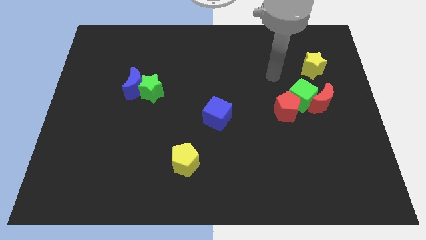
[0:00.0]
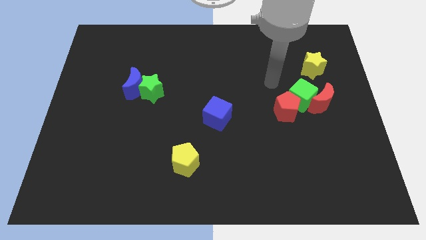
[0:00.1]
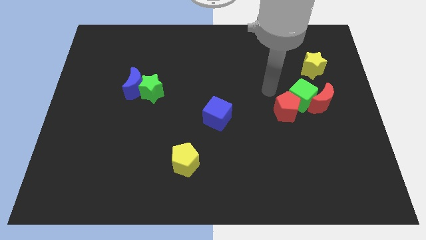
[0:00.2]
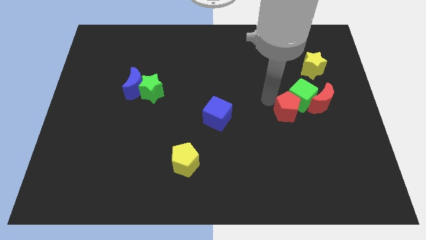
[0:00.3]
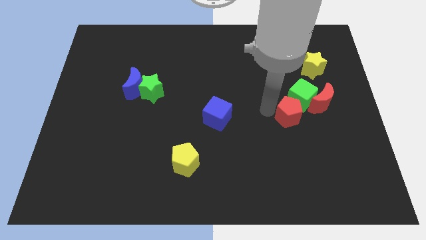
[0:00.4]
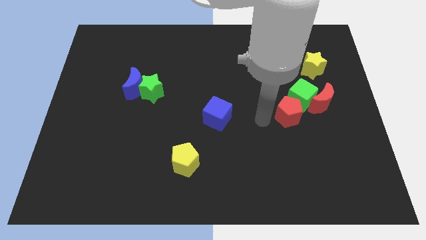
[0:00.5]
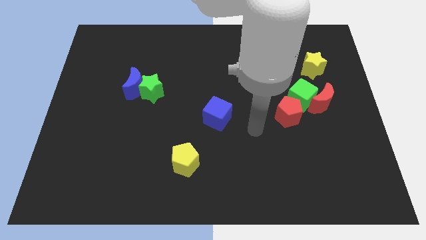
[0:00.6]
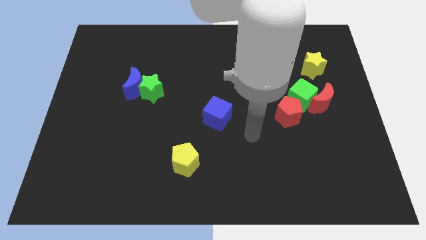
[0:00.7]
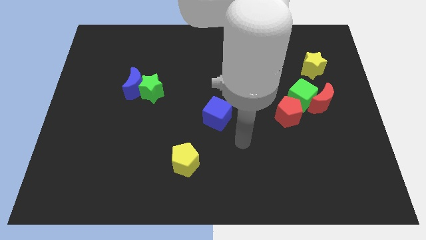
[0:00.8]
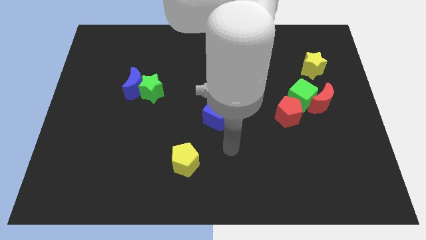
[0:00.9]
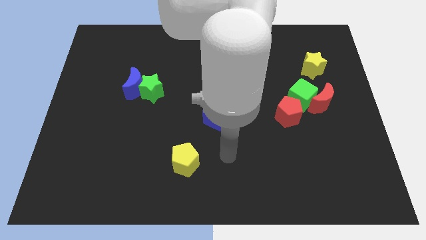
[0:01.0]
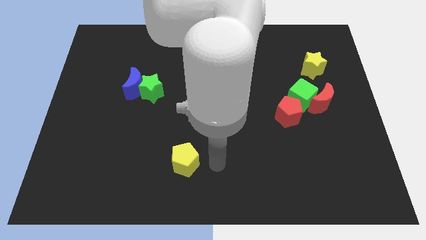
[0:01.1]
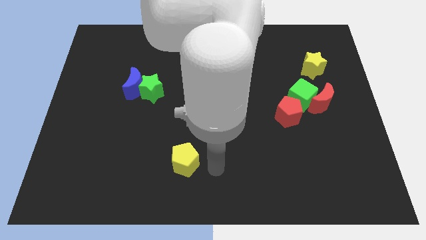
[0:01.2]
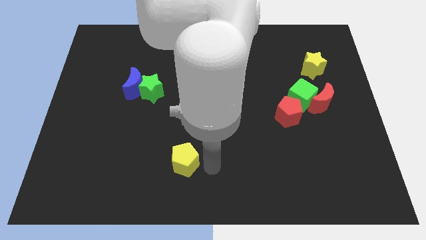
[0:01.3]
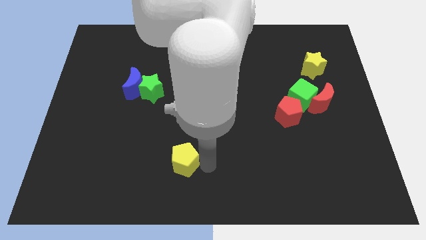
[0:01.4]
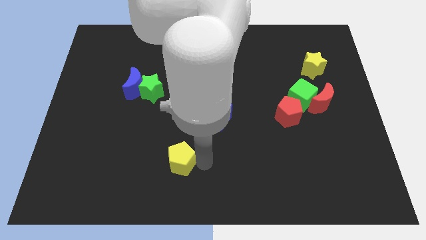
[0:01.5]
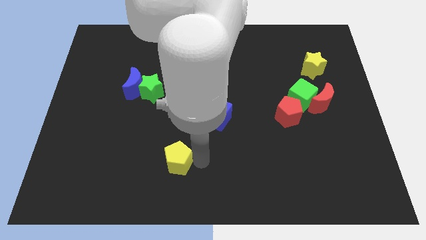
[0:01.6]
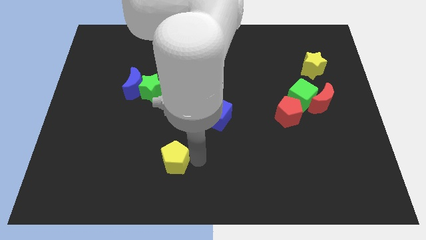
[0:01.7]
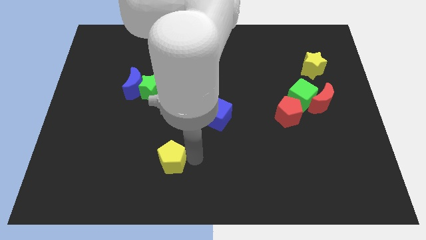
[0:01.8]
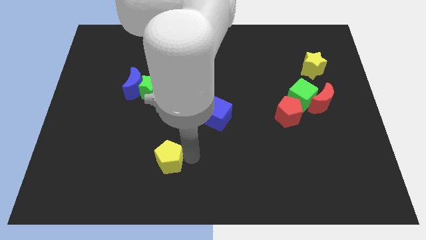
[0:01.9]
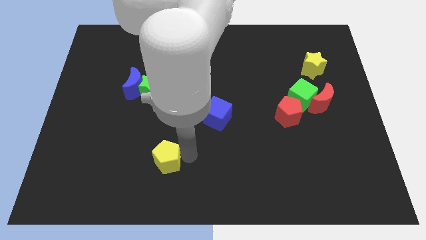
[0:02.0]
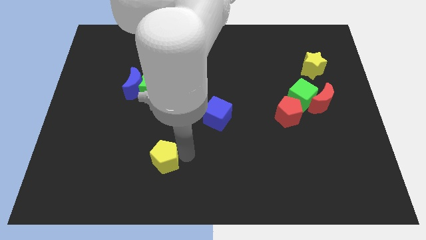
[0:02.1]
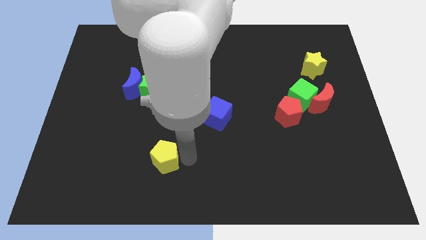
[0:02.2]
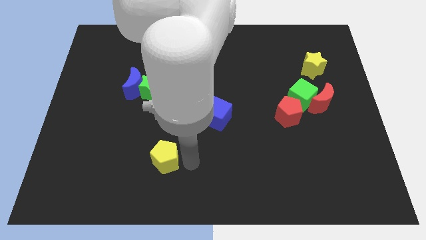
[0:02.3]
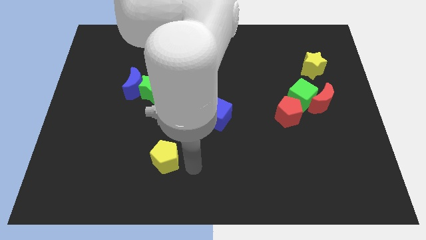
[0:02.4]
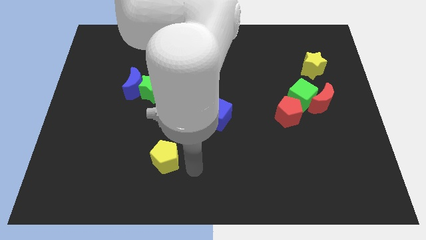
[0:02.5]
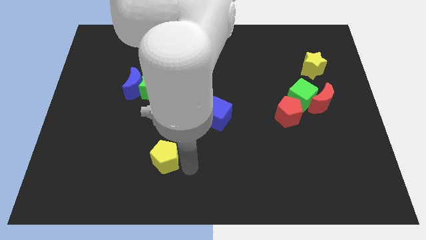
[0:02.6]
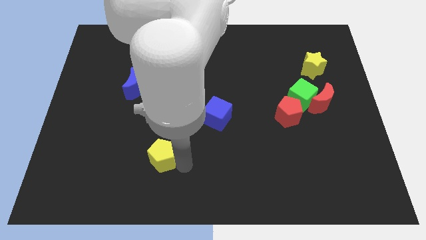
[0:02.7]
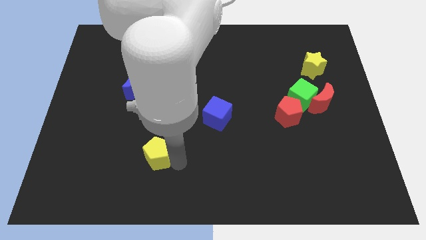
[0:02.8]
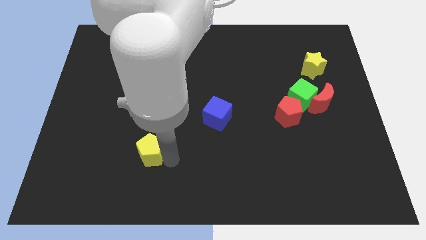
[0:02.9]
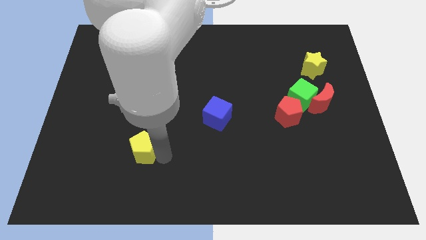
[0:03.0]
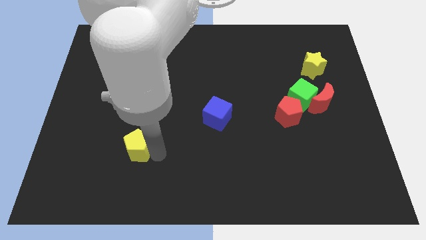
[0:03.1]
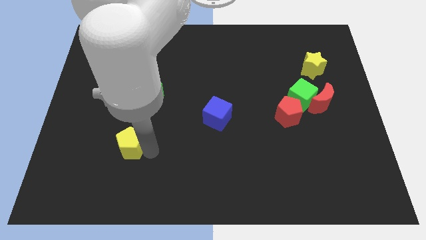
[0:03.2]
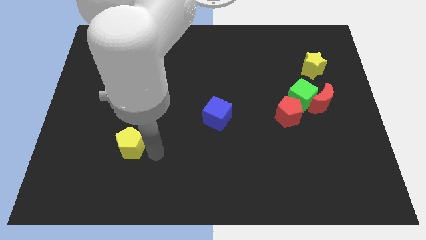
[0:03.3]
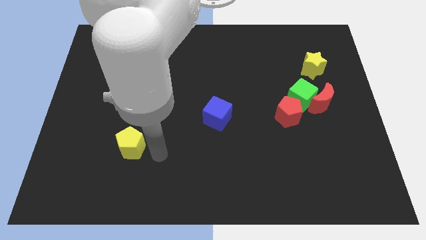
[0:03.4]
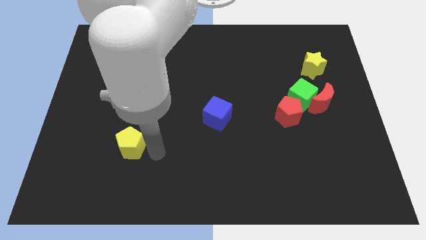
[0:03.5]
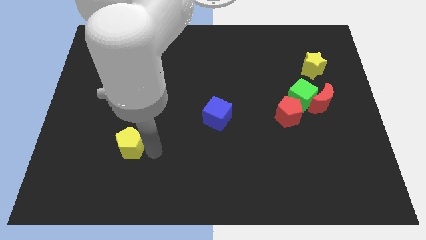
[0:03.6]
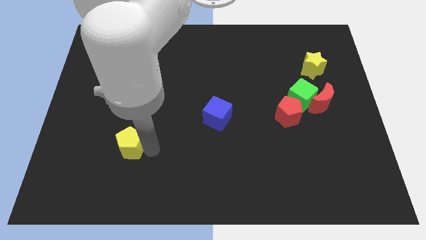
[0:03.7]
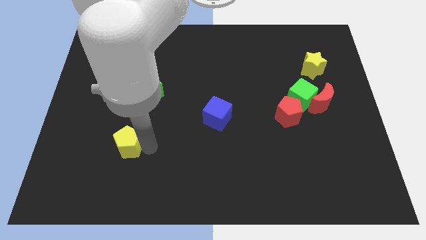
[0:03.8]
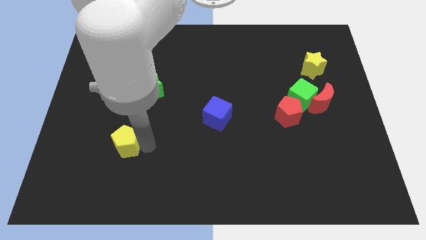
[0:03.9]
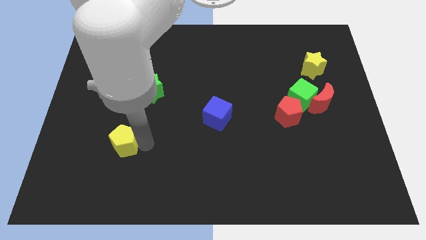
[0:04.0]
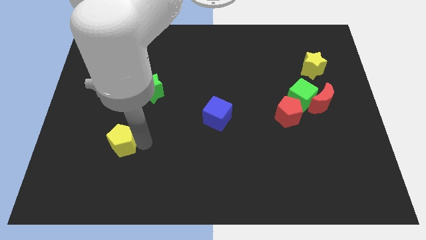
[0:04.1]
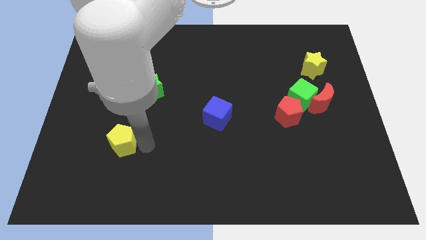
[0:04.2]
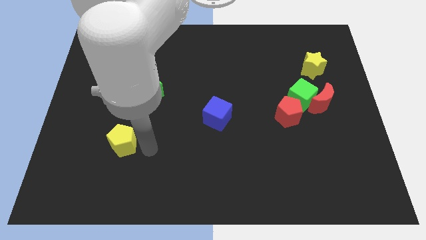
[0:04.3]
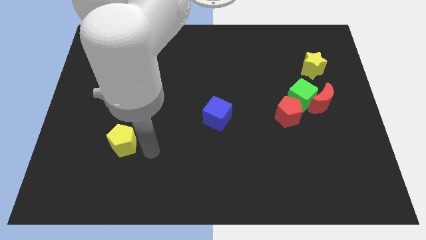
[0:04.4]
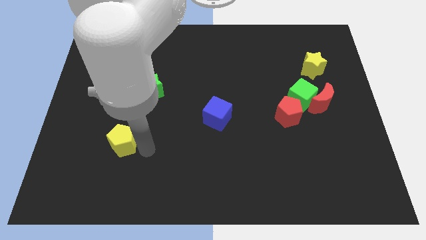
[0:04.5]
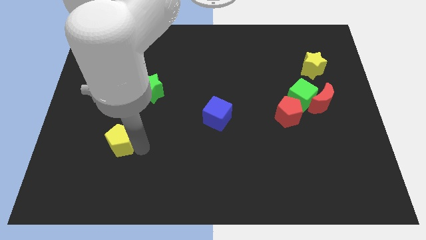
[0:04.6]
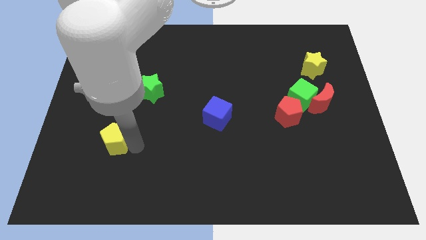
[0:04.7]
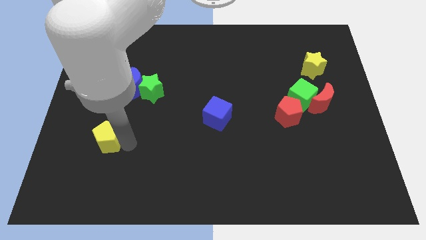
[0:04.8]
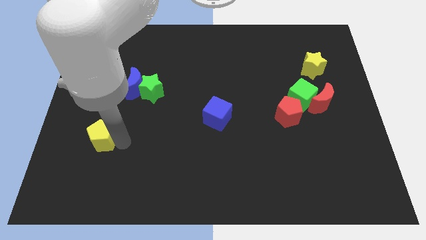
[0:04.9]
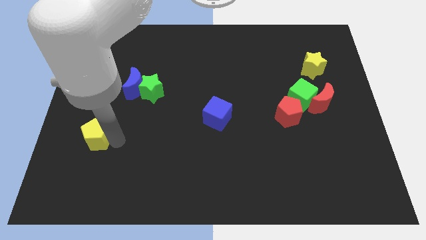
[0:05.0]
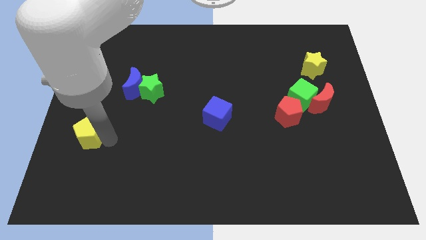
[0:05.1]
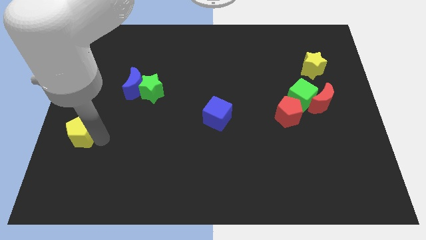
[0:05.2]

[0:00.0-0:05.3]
slide the yellow pentagon to the center left

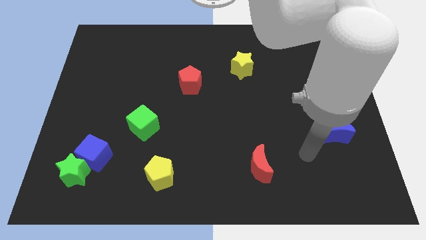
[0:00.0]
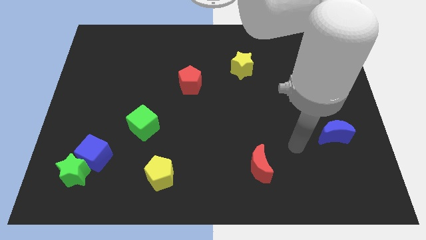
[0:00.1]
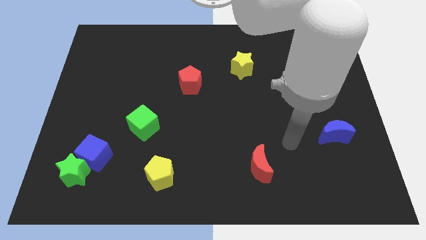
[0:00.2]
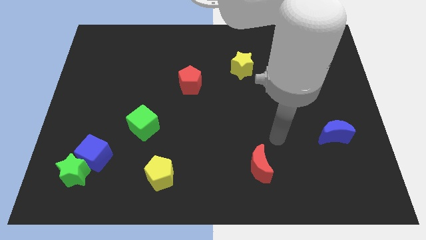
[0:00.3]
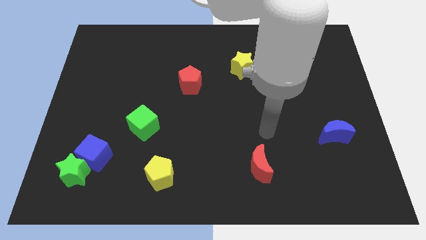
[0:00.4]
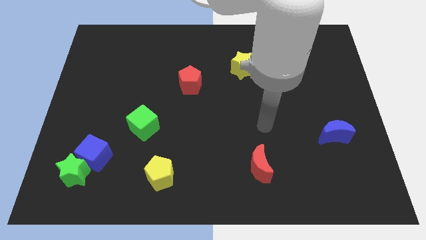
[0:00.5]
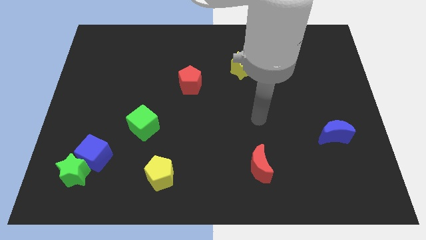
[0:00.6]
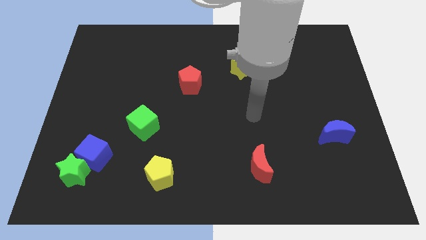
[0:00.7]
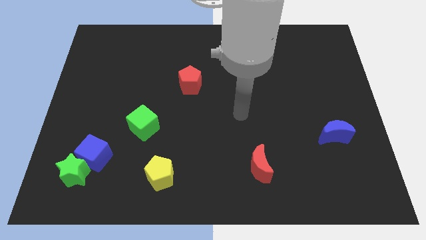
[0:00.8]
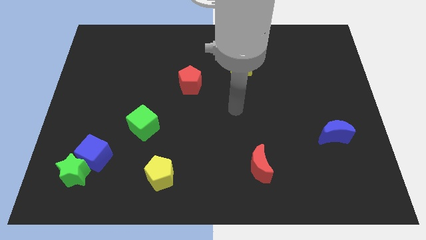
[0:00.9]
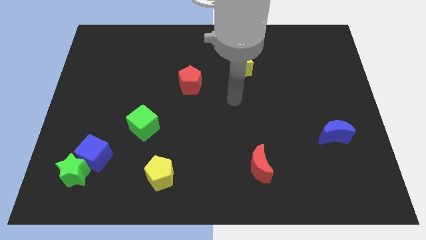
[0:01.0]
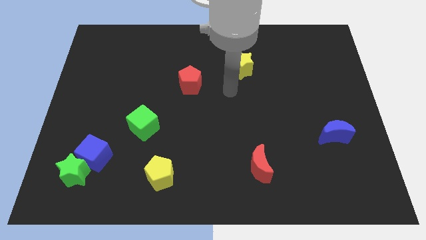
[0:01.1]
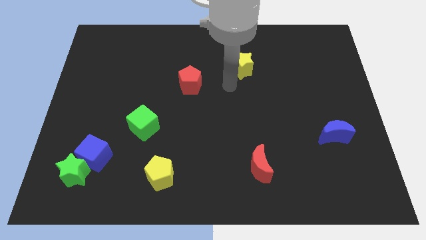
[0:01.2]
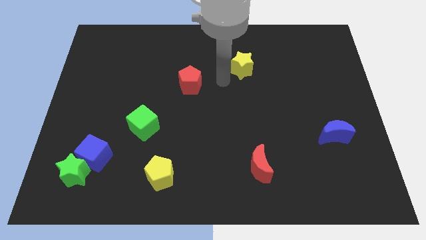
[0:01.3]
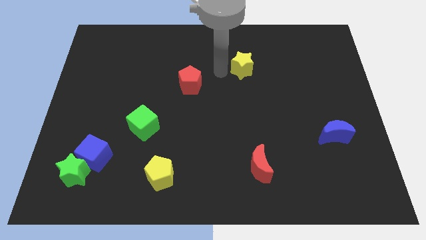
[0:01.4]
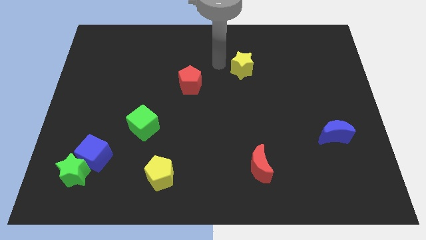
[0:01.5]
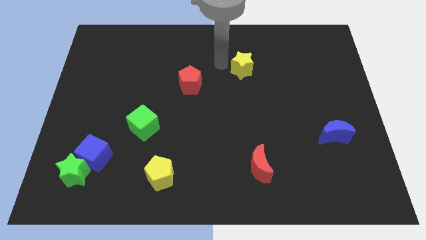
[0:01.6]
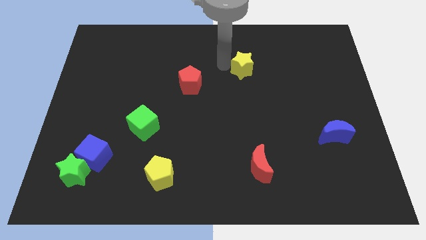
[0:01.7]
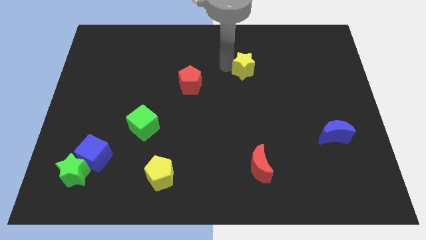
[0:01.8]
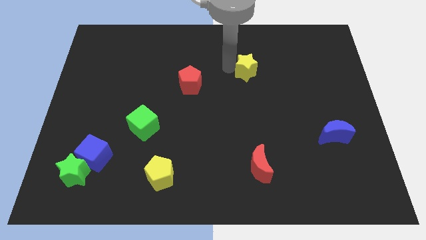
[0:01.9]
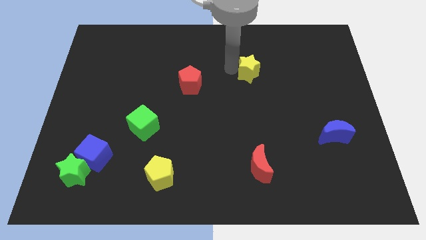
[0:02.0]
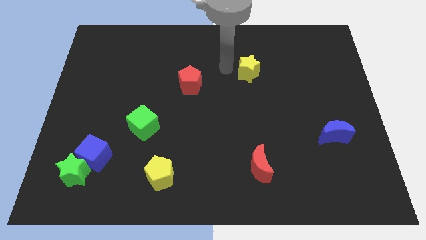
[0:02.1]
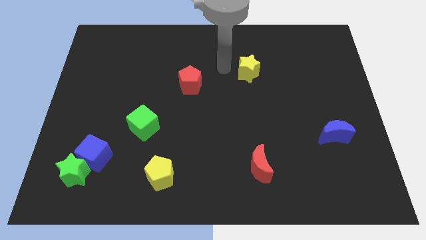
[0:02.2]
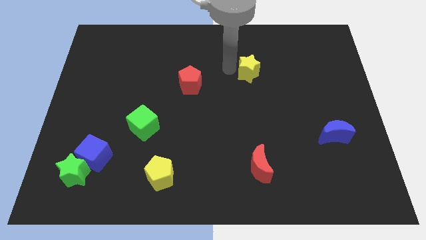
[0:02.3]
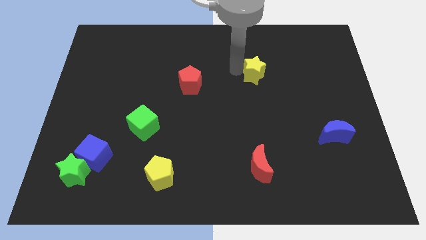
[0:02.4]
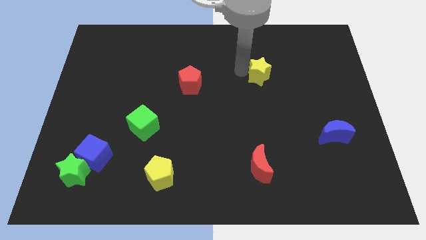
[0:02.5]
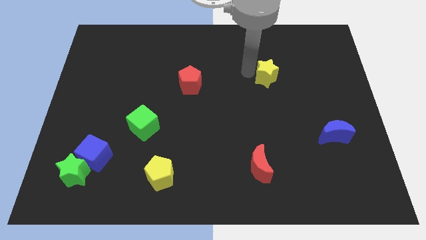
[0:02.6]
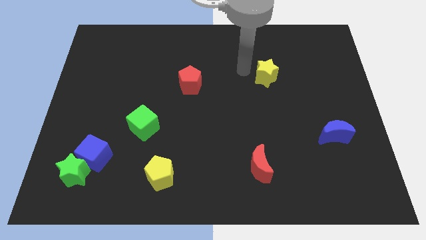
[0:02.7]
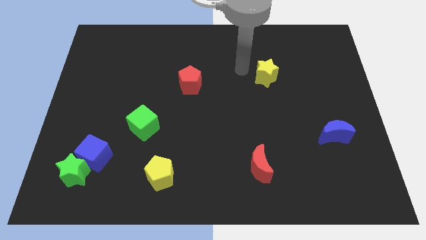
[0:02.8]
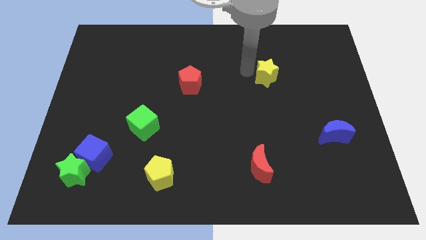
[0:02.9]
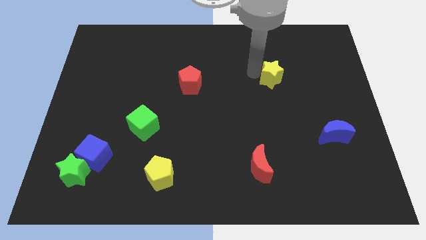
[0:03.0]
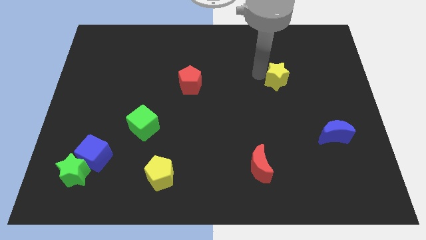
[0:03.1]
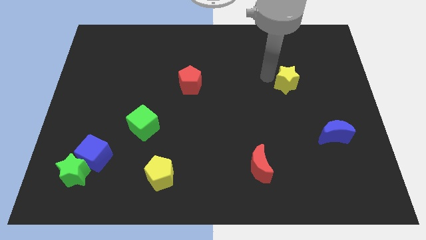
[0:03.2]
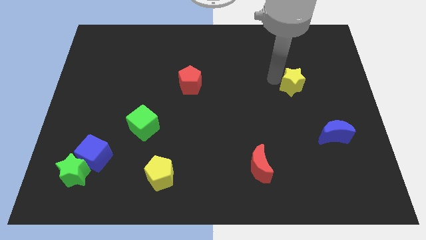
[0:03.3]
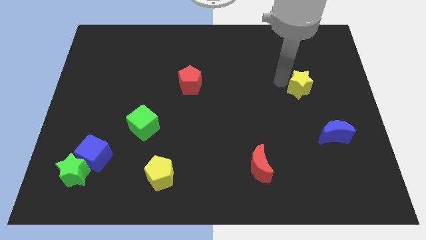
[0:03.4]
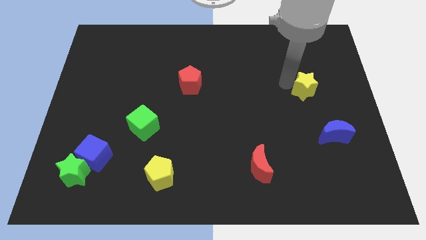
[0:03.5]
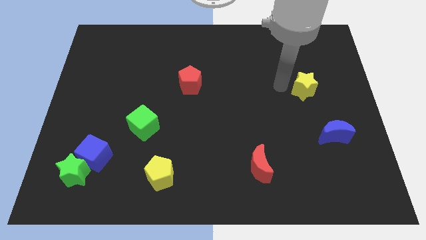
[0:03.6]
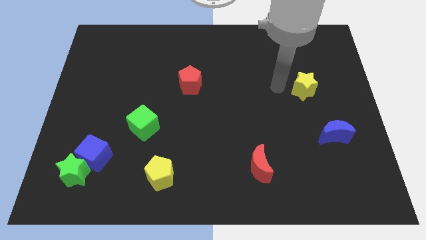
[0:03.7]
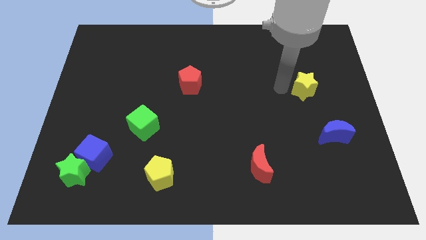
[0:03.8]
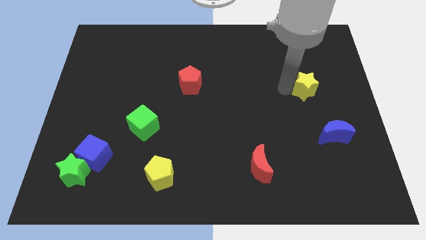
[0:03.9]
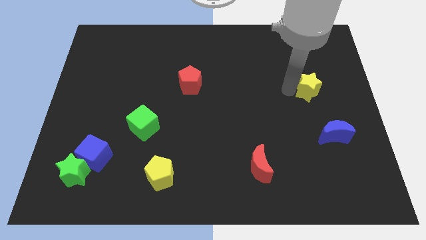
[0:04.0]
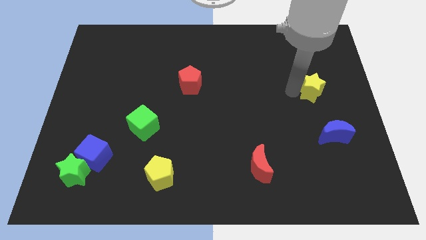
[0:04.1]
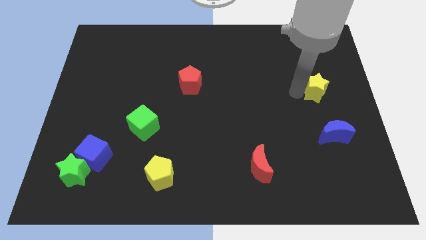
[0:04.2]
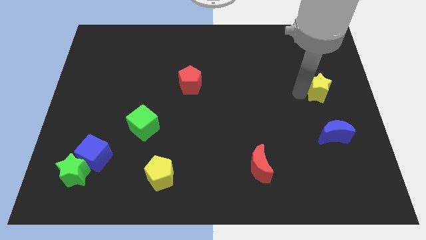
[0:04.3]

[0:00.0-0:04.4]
slide the yellow star to the center right
